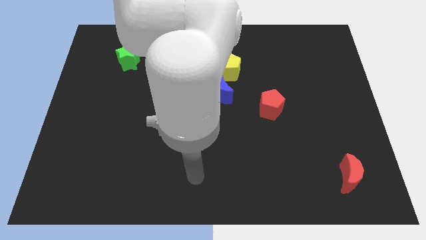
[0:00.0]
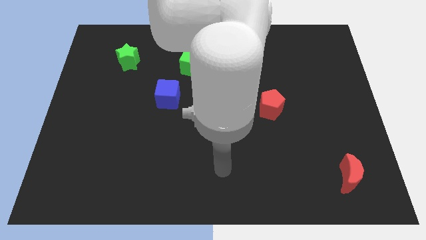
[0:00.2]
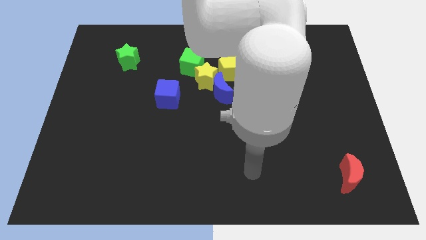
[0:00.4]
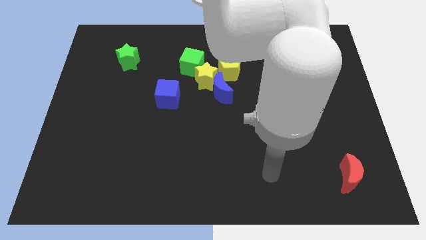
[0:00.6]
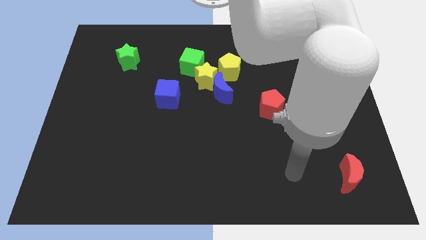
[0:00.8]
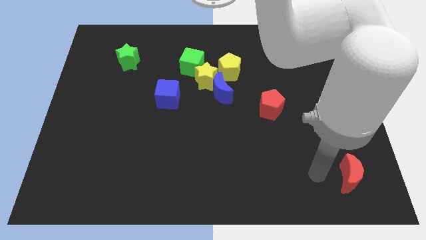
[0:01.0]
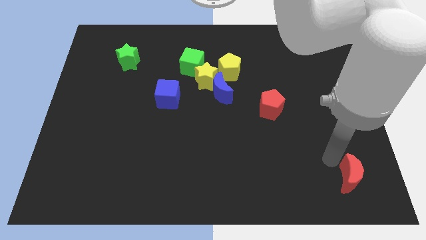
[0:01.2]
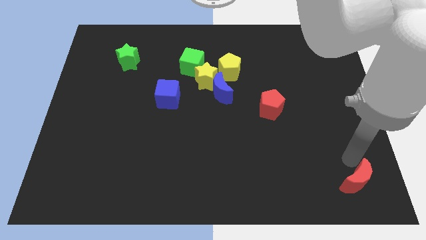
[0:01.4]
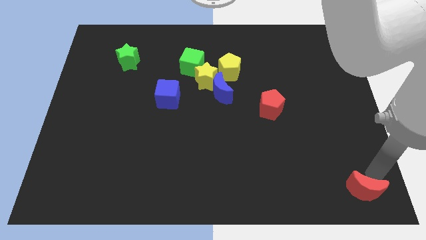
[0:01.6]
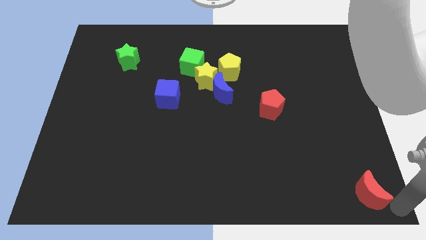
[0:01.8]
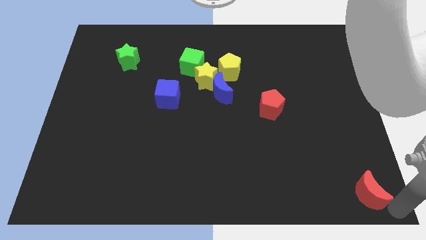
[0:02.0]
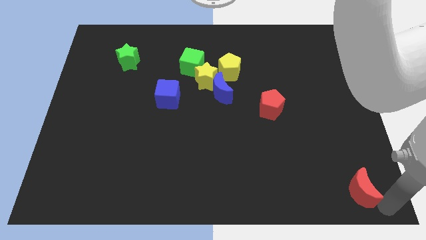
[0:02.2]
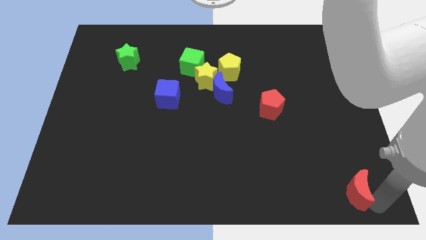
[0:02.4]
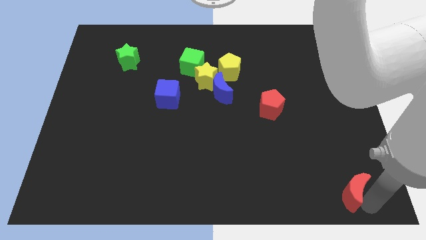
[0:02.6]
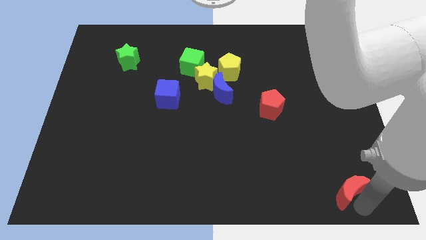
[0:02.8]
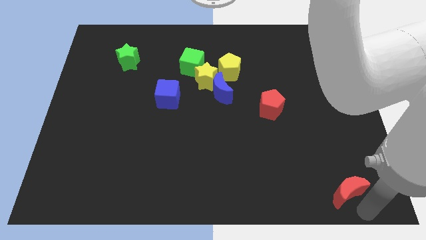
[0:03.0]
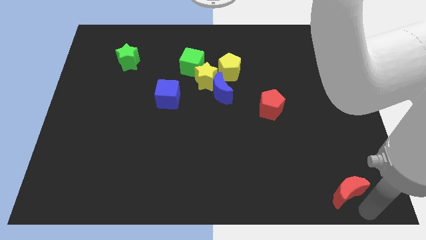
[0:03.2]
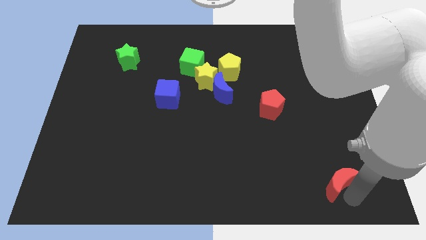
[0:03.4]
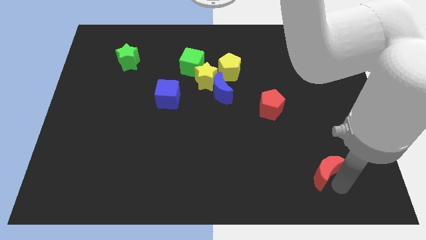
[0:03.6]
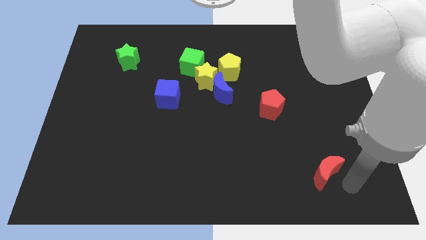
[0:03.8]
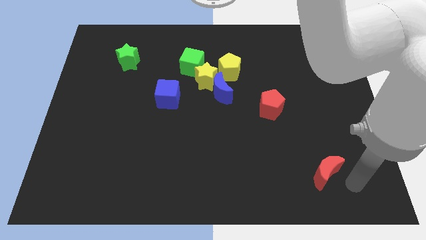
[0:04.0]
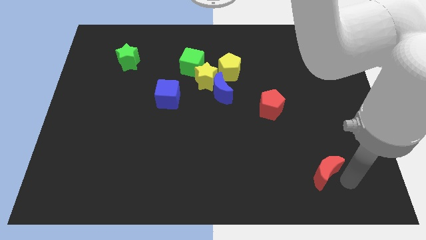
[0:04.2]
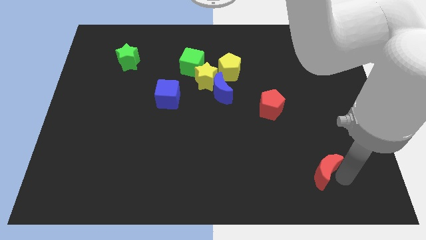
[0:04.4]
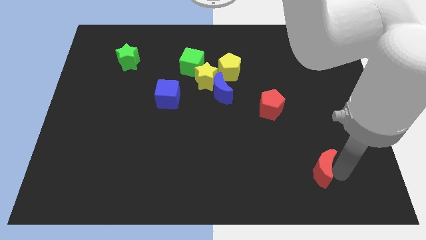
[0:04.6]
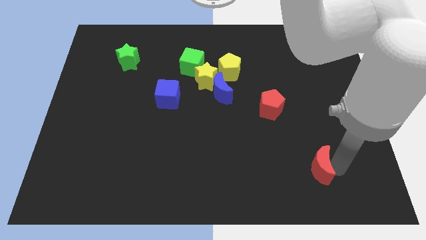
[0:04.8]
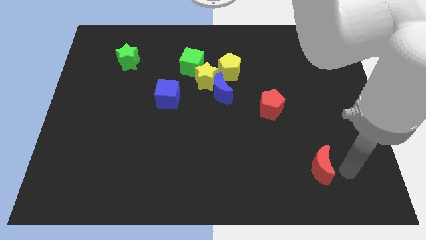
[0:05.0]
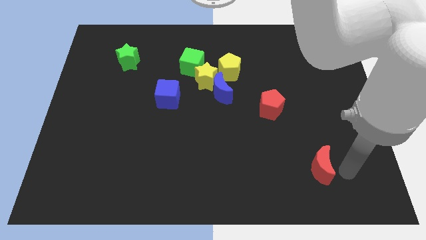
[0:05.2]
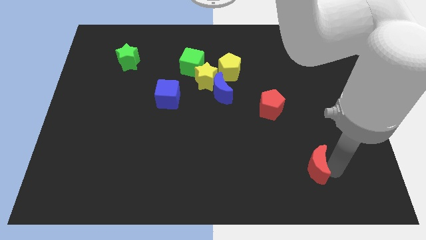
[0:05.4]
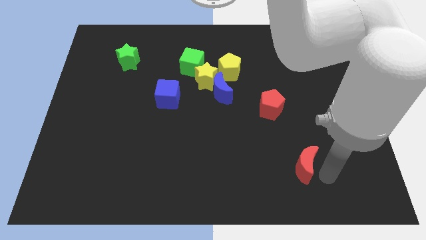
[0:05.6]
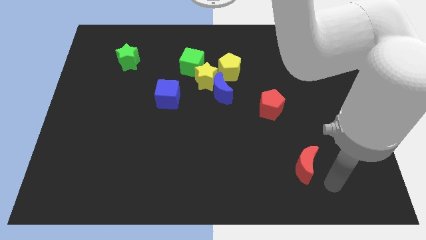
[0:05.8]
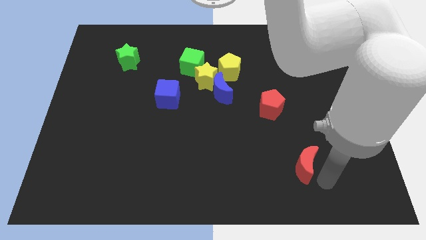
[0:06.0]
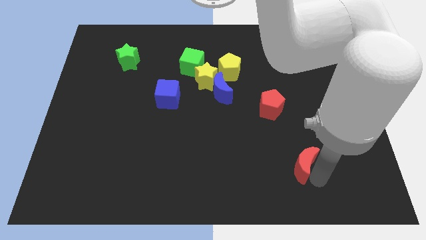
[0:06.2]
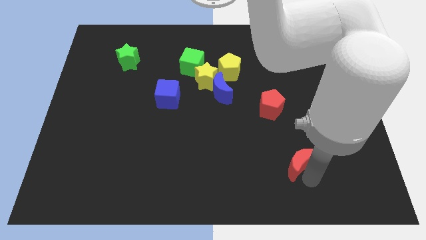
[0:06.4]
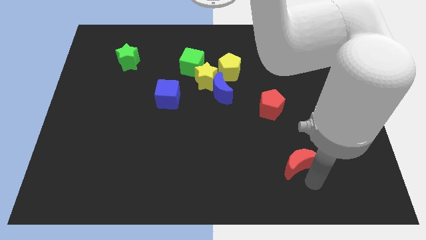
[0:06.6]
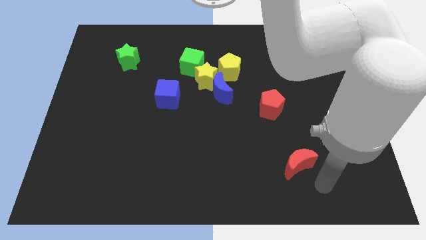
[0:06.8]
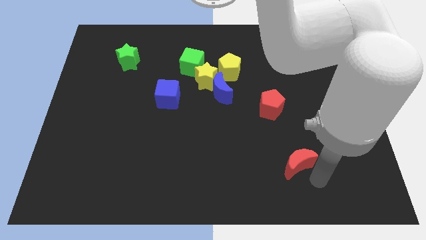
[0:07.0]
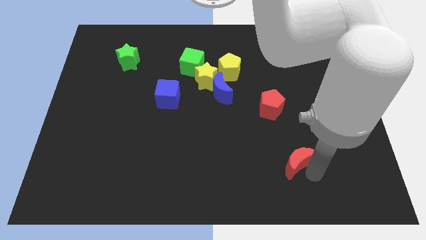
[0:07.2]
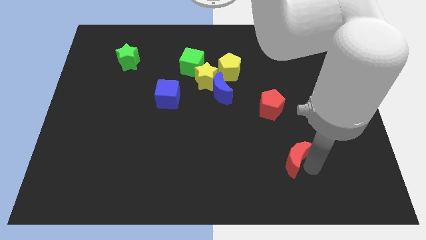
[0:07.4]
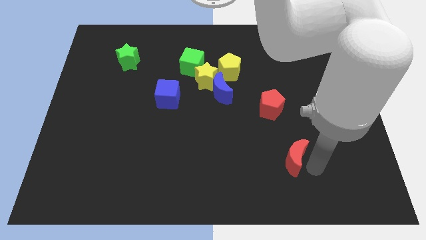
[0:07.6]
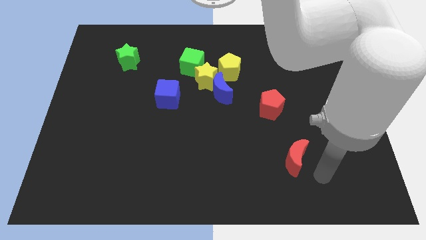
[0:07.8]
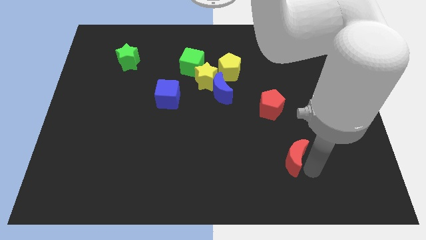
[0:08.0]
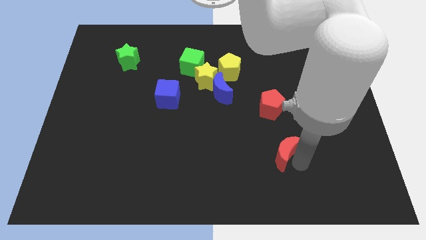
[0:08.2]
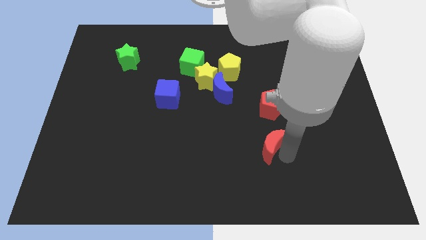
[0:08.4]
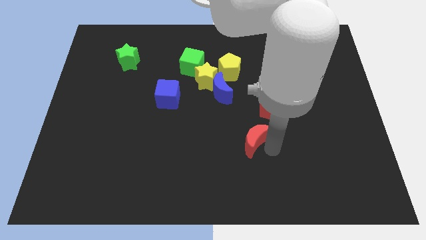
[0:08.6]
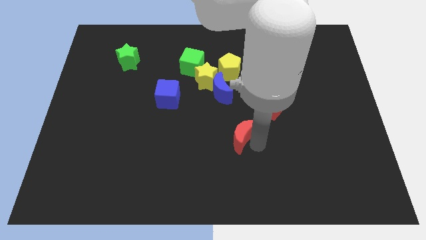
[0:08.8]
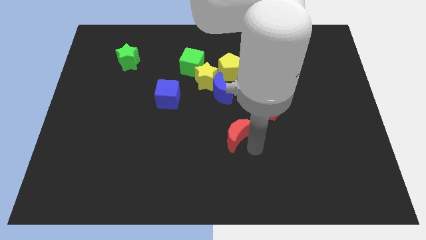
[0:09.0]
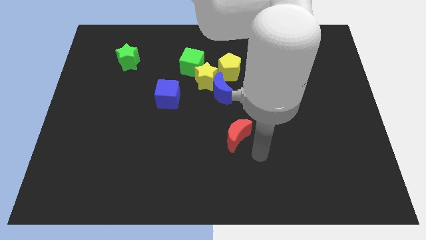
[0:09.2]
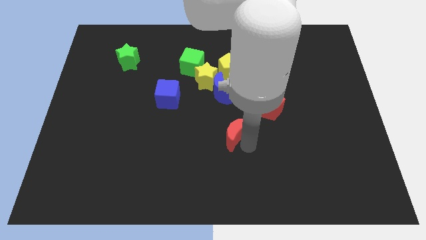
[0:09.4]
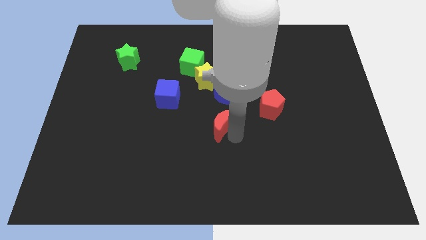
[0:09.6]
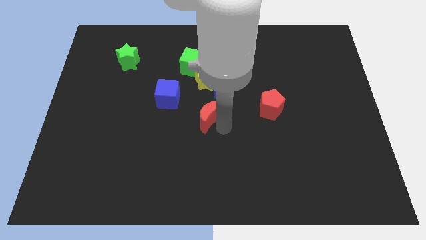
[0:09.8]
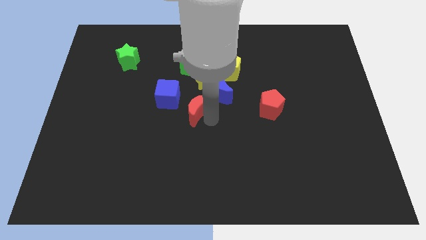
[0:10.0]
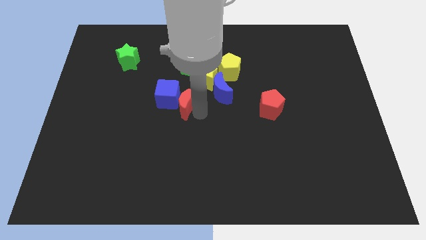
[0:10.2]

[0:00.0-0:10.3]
put the red moon close to the blue cube

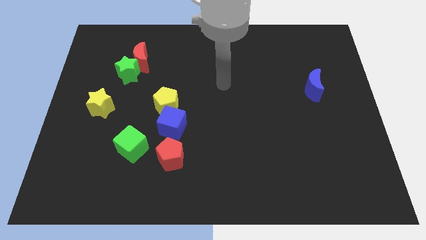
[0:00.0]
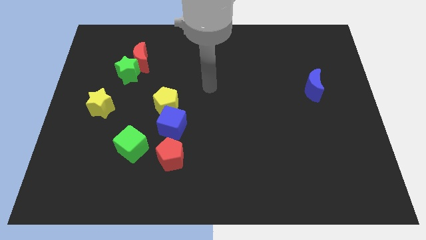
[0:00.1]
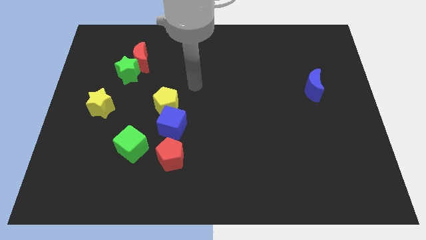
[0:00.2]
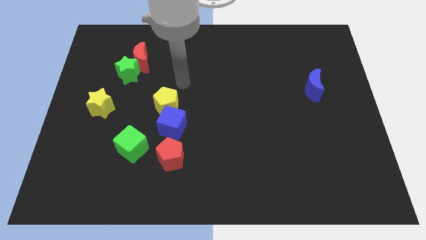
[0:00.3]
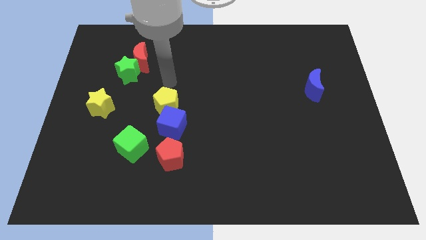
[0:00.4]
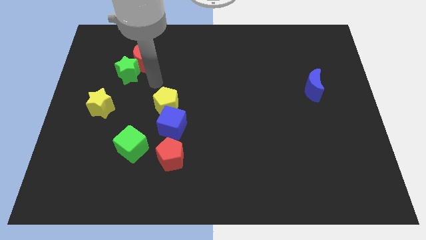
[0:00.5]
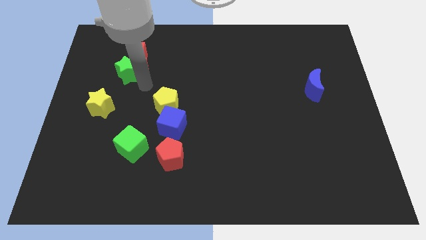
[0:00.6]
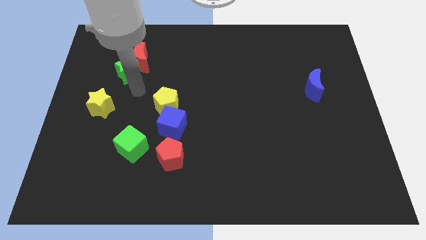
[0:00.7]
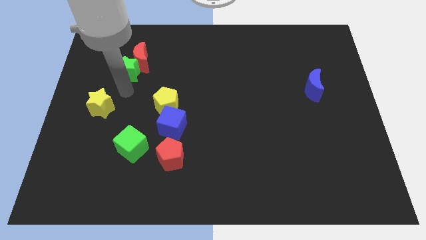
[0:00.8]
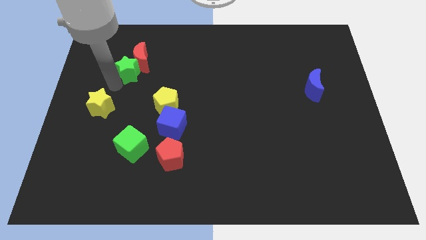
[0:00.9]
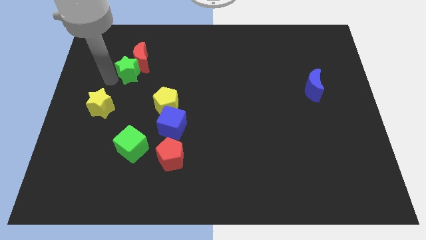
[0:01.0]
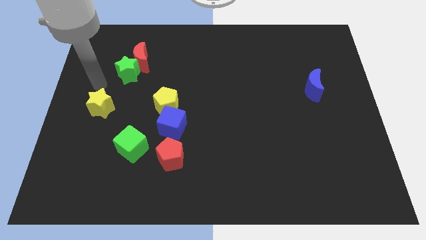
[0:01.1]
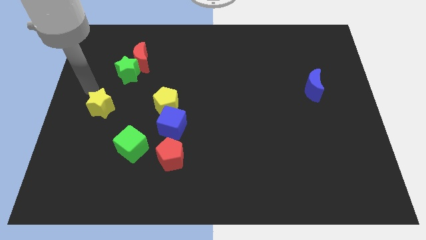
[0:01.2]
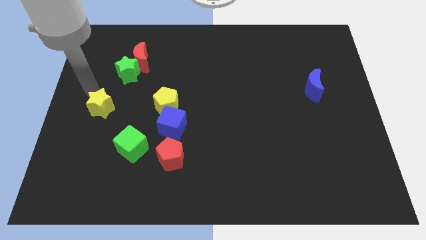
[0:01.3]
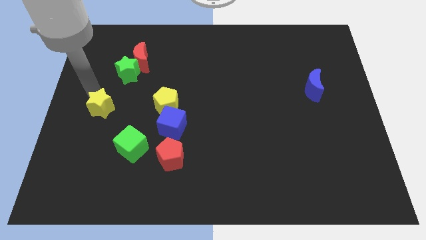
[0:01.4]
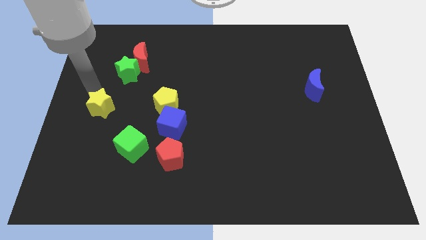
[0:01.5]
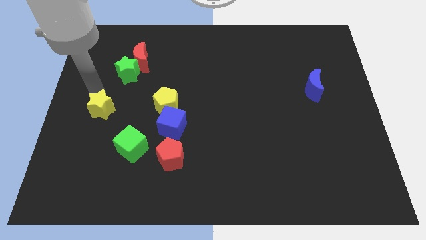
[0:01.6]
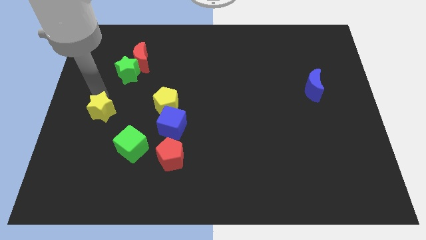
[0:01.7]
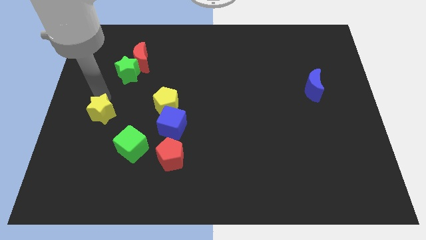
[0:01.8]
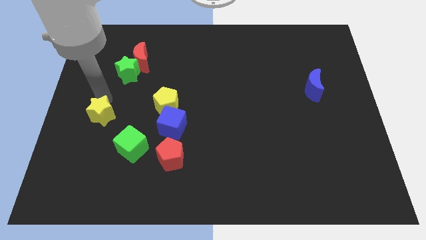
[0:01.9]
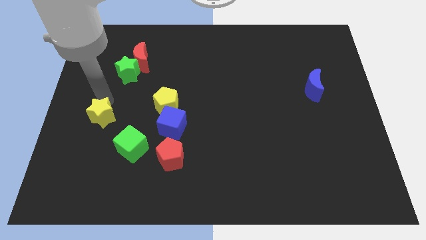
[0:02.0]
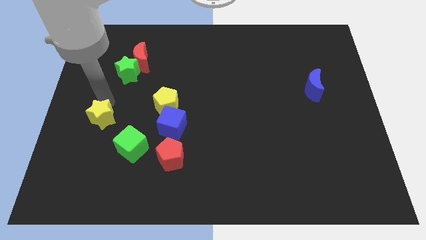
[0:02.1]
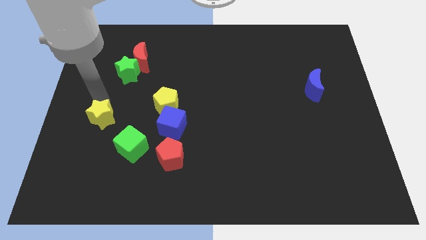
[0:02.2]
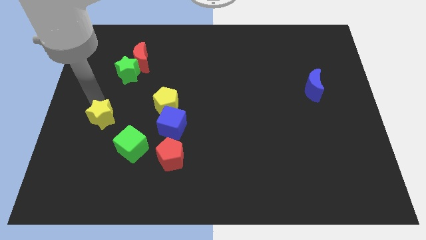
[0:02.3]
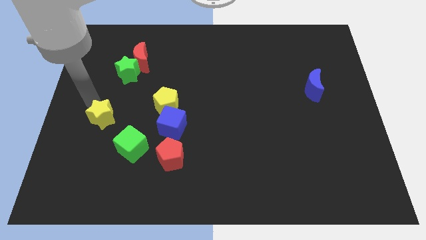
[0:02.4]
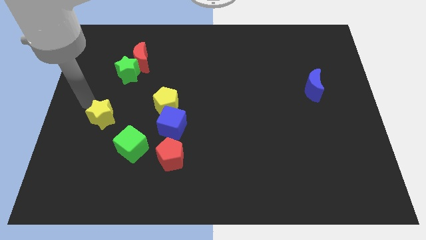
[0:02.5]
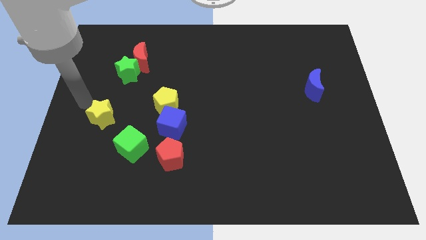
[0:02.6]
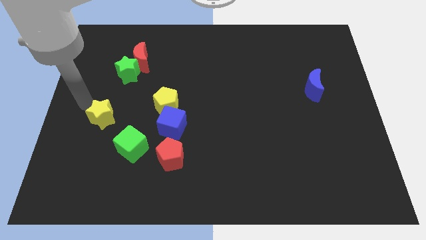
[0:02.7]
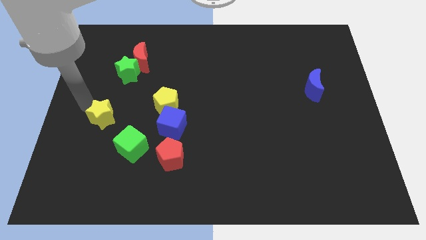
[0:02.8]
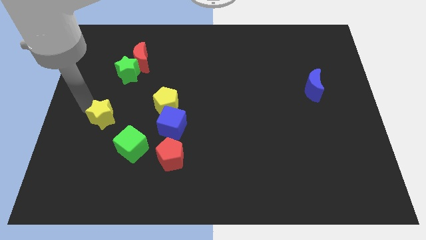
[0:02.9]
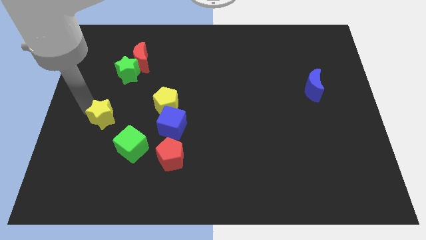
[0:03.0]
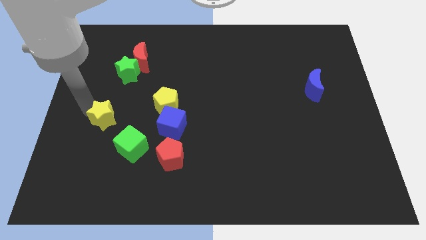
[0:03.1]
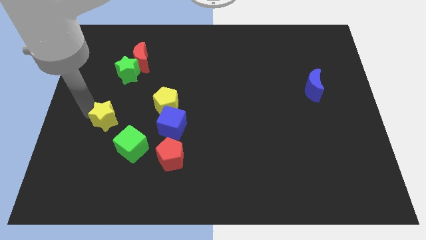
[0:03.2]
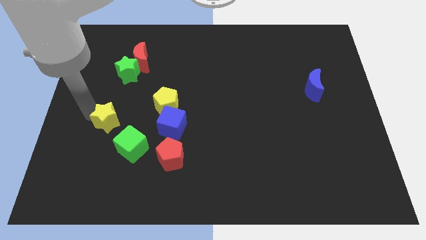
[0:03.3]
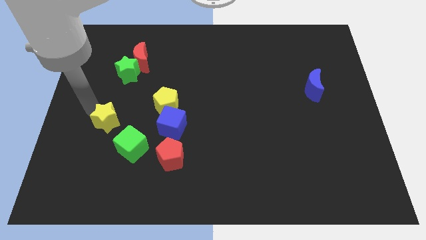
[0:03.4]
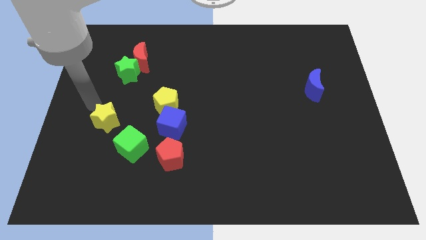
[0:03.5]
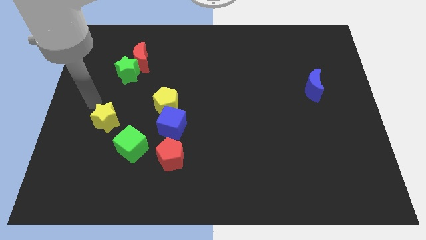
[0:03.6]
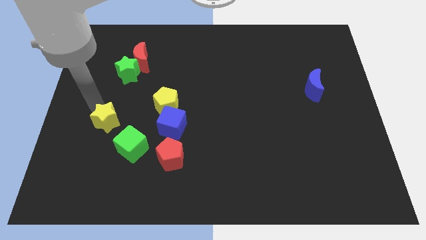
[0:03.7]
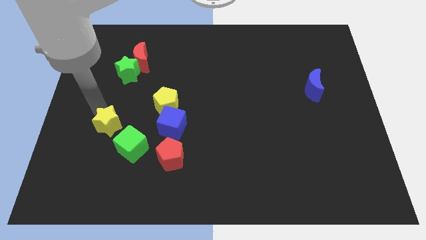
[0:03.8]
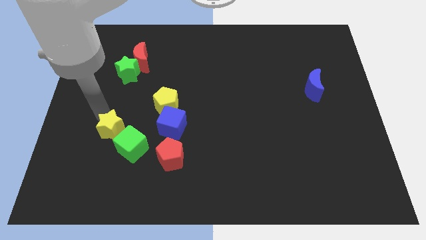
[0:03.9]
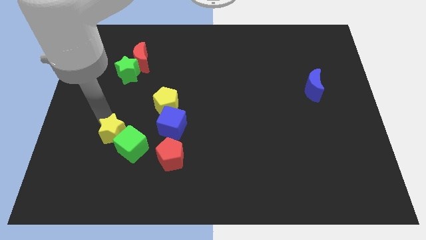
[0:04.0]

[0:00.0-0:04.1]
slide the yellow star next to the green cube
